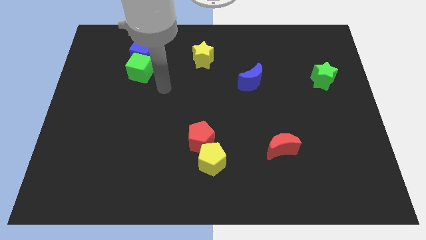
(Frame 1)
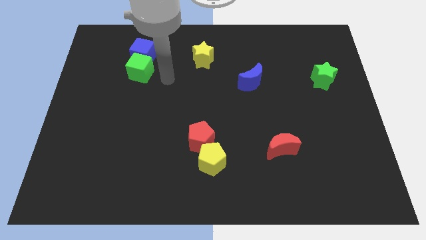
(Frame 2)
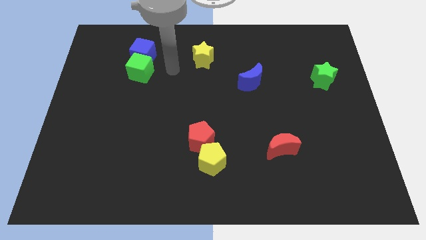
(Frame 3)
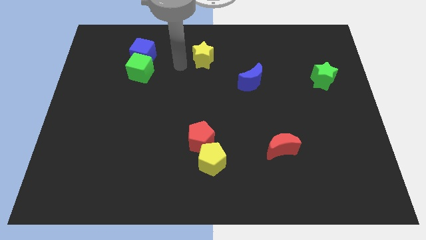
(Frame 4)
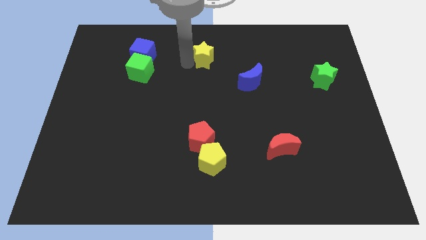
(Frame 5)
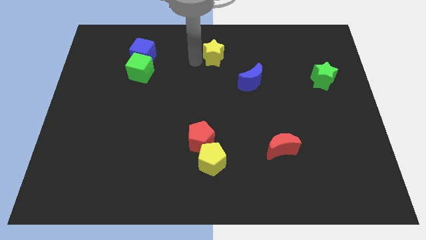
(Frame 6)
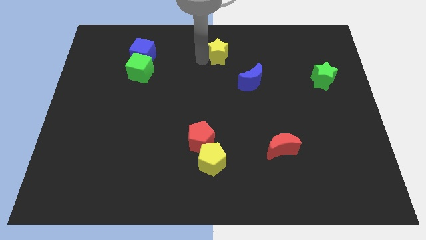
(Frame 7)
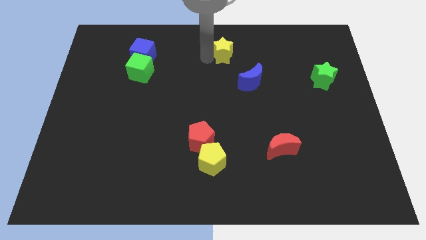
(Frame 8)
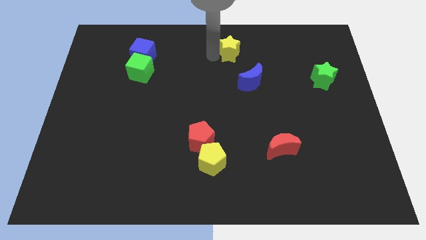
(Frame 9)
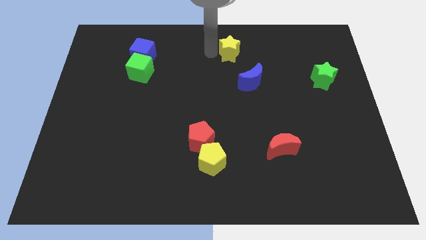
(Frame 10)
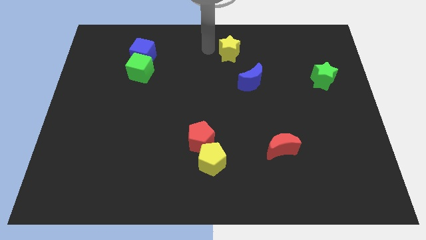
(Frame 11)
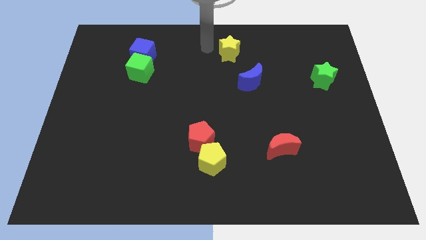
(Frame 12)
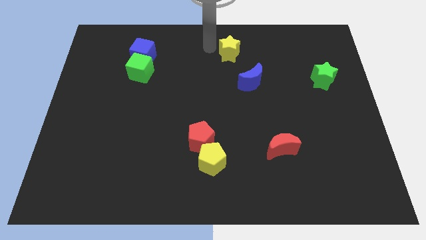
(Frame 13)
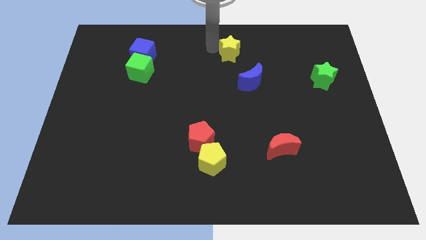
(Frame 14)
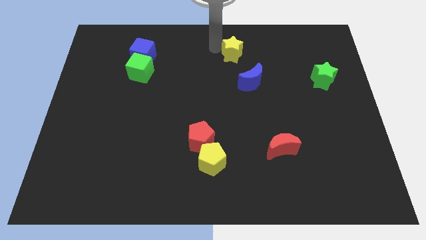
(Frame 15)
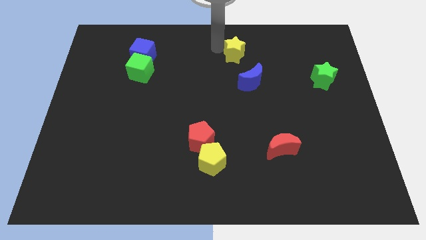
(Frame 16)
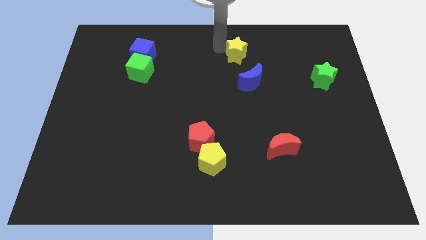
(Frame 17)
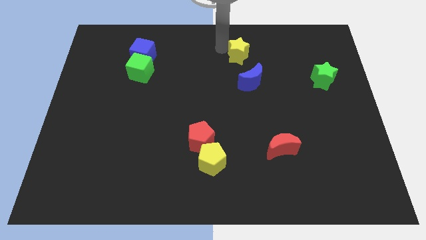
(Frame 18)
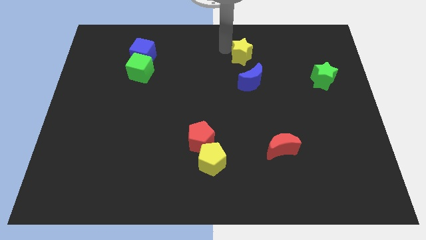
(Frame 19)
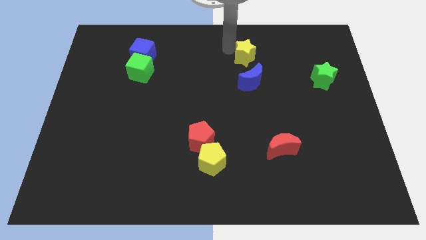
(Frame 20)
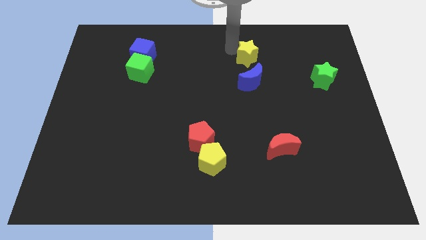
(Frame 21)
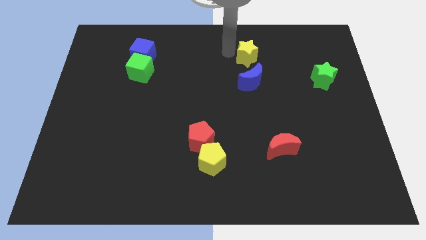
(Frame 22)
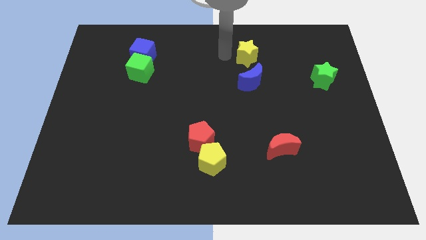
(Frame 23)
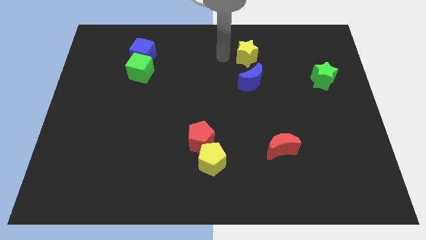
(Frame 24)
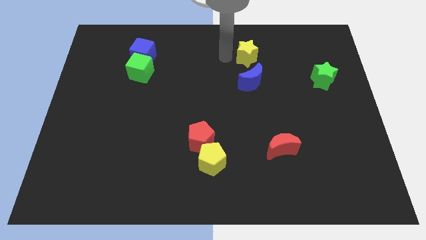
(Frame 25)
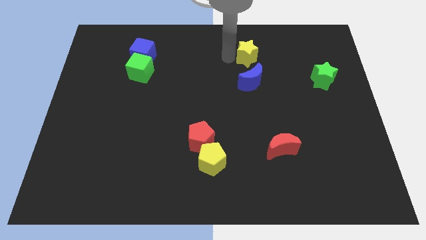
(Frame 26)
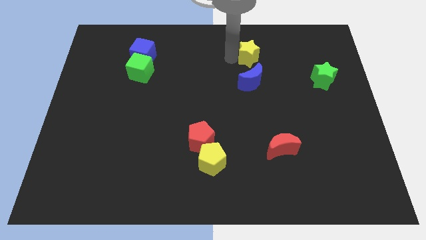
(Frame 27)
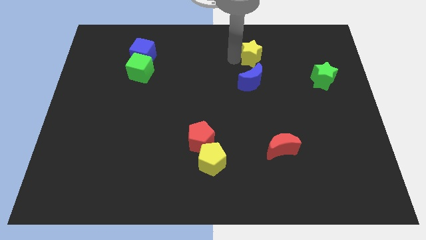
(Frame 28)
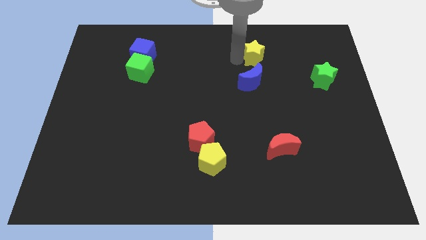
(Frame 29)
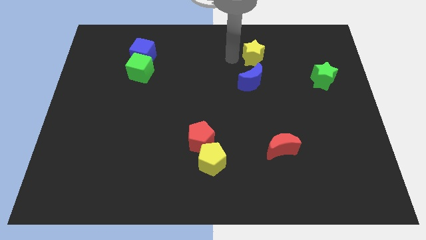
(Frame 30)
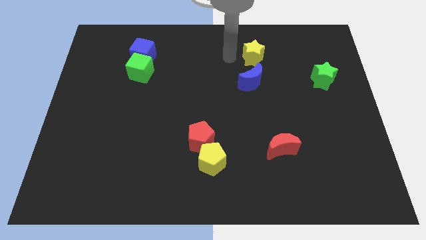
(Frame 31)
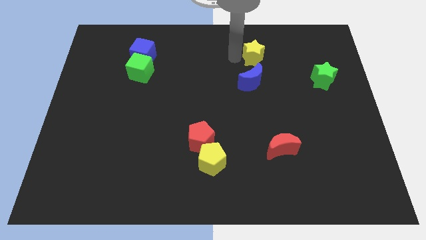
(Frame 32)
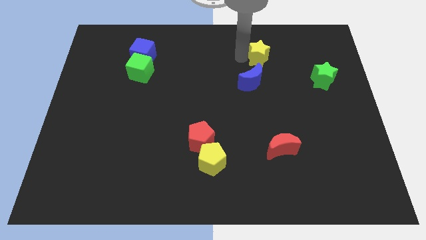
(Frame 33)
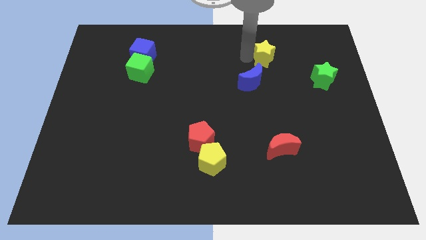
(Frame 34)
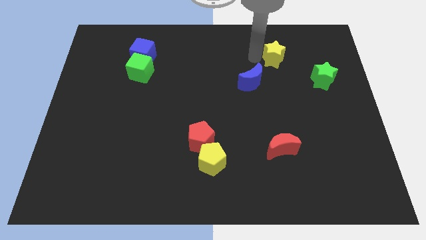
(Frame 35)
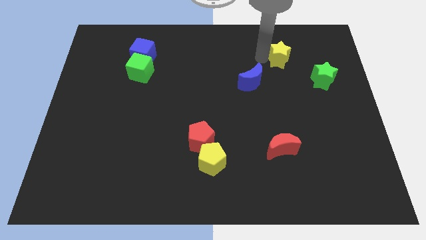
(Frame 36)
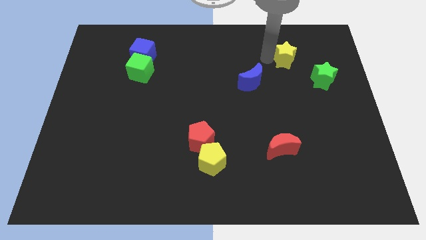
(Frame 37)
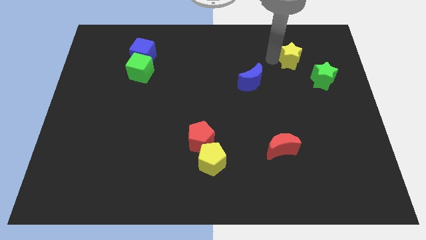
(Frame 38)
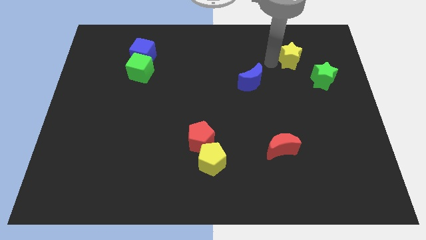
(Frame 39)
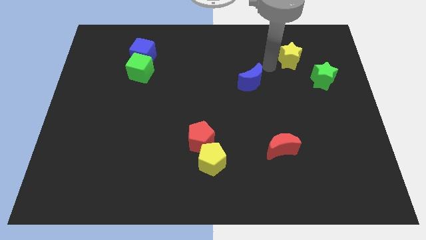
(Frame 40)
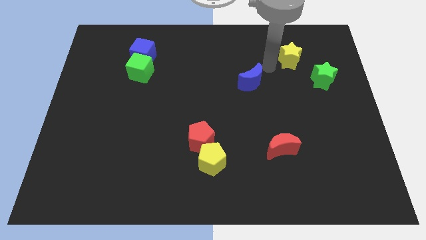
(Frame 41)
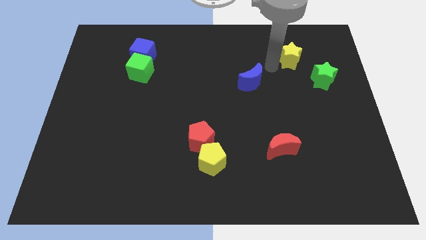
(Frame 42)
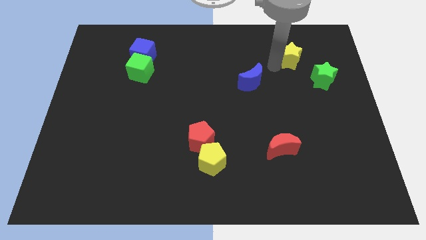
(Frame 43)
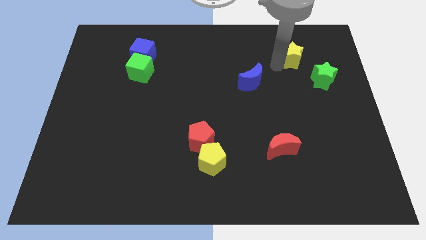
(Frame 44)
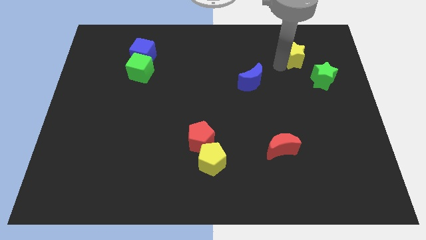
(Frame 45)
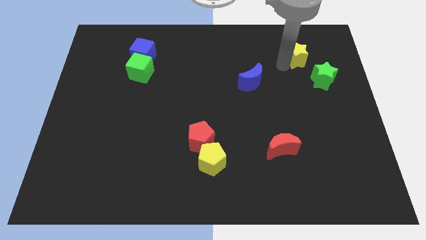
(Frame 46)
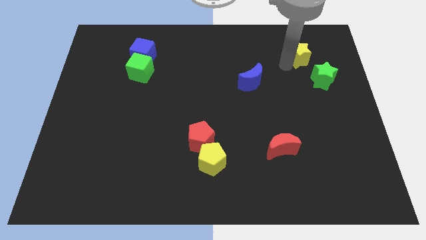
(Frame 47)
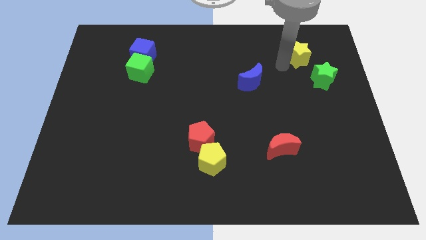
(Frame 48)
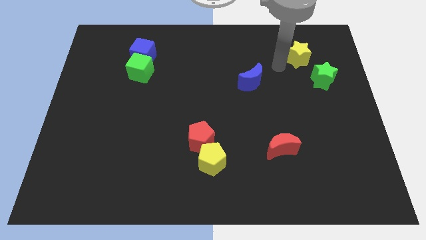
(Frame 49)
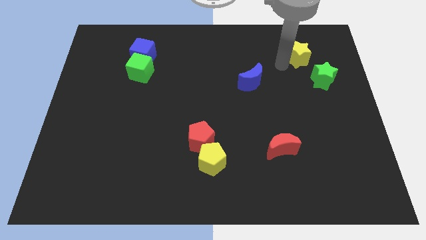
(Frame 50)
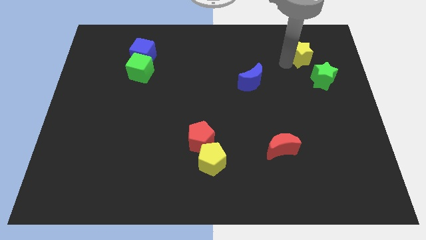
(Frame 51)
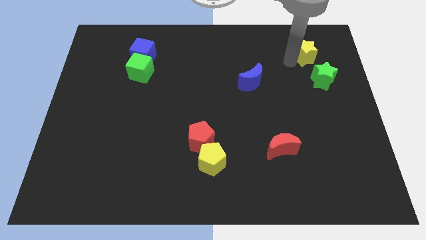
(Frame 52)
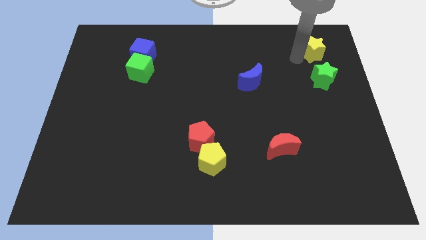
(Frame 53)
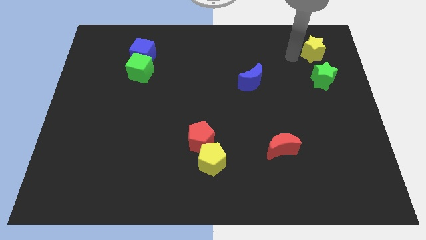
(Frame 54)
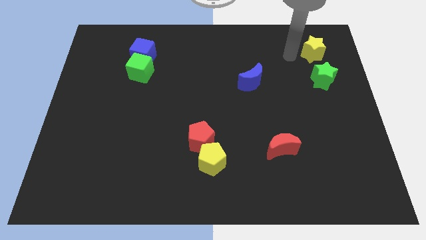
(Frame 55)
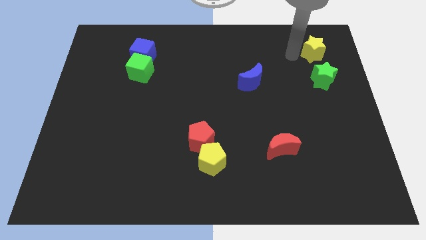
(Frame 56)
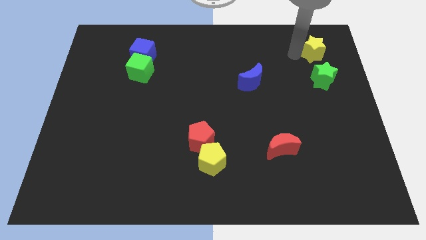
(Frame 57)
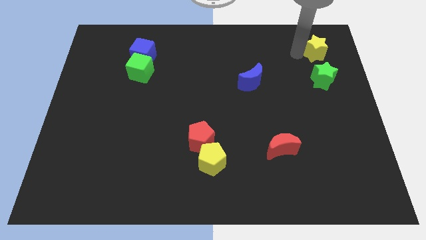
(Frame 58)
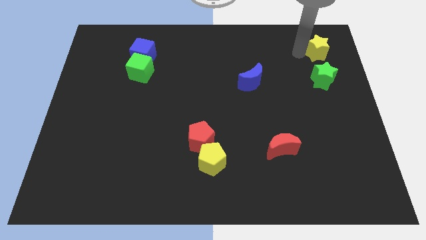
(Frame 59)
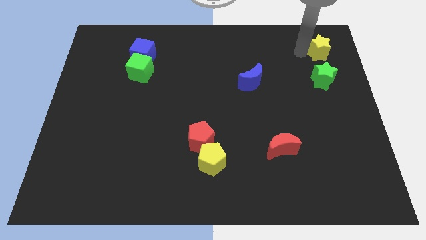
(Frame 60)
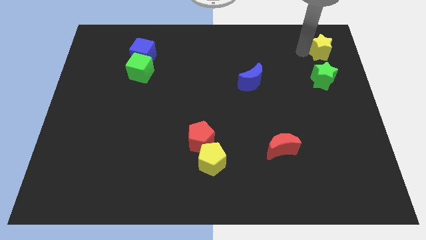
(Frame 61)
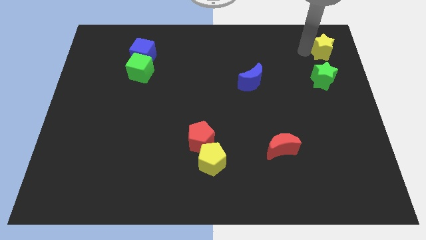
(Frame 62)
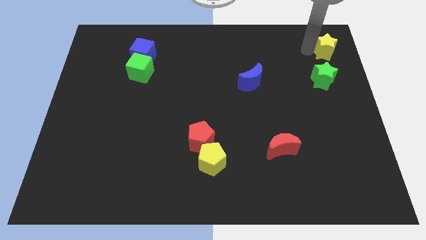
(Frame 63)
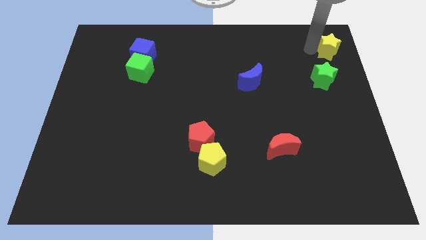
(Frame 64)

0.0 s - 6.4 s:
move the yellow star to the upper right corner
